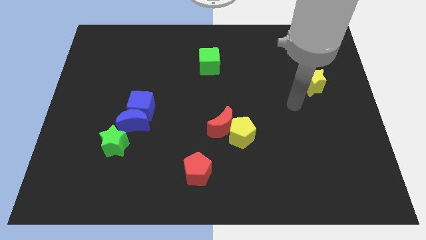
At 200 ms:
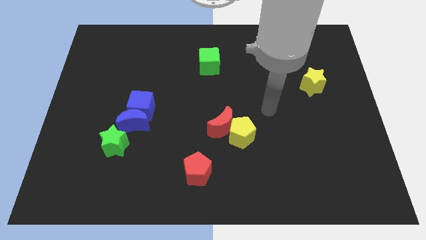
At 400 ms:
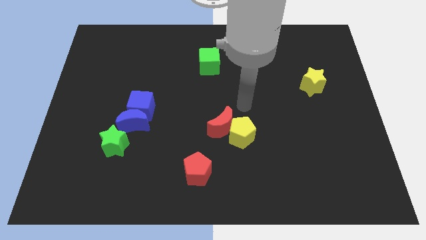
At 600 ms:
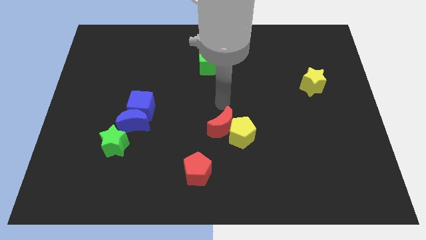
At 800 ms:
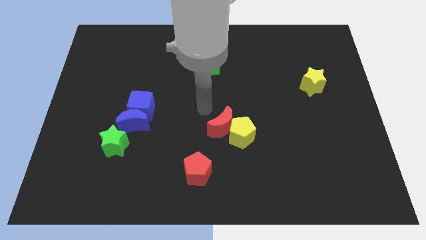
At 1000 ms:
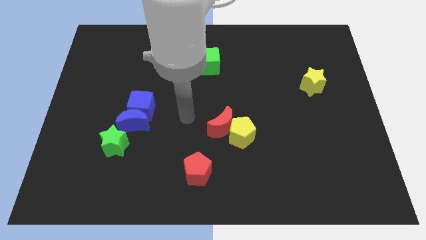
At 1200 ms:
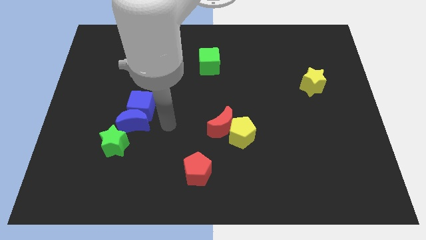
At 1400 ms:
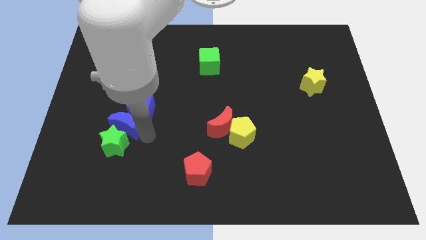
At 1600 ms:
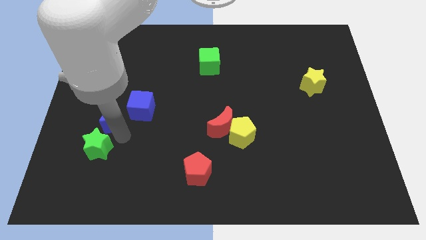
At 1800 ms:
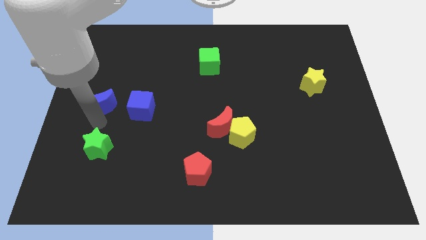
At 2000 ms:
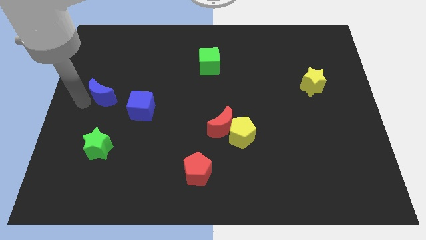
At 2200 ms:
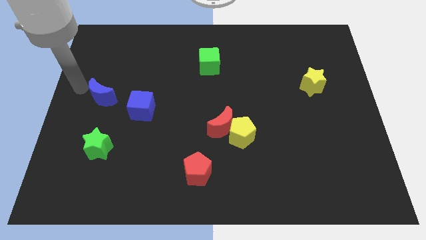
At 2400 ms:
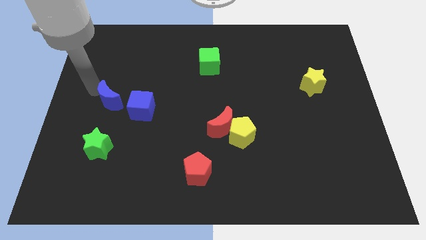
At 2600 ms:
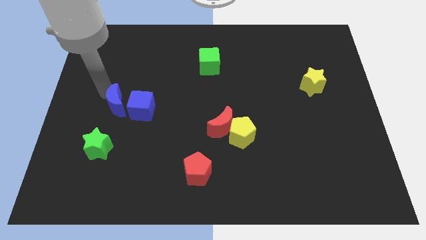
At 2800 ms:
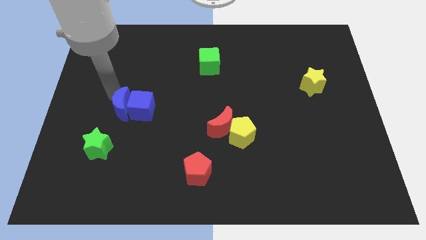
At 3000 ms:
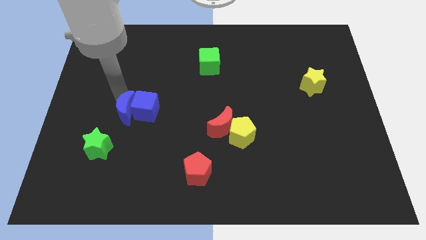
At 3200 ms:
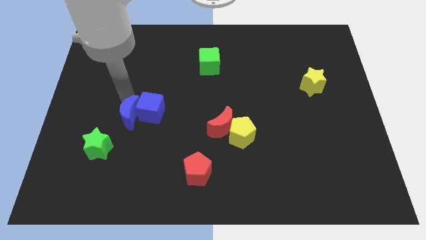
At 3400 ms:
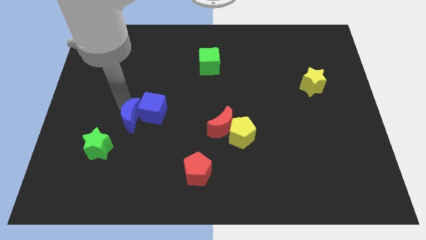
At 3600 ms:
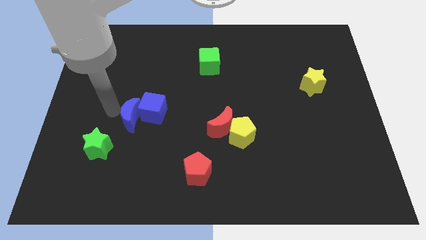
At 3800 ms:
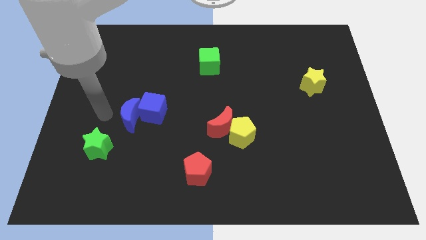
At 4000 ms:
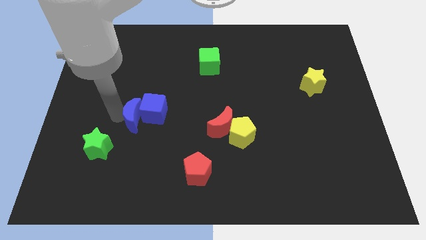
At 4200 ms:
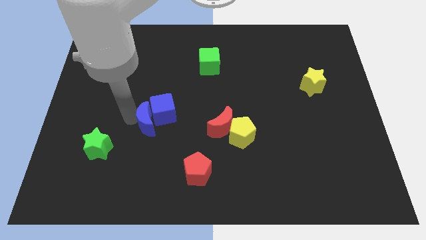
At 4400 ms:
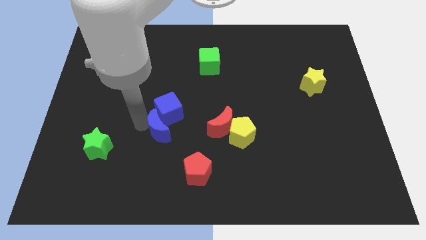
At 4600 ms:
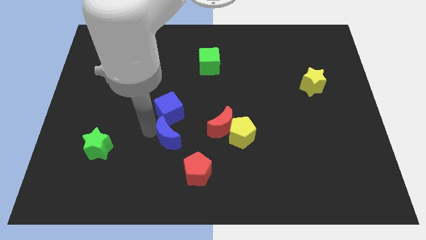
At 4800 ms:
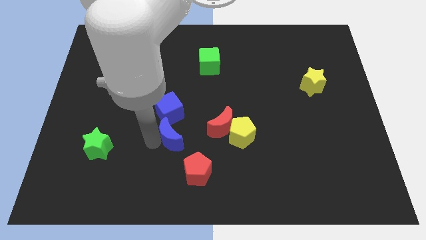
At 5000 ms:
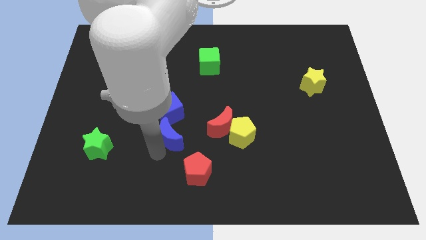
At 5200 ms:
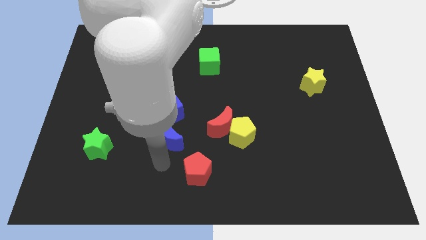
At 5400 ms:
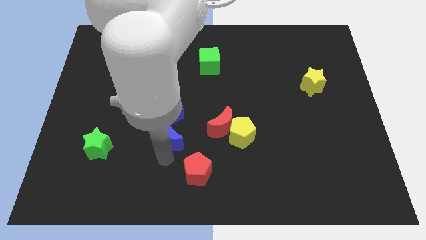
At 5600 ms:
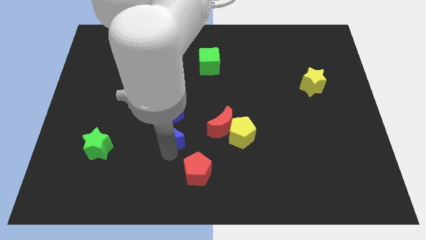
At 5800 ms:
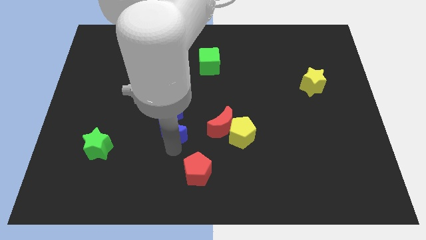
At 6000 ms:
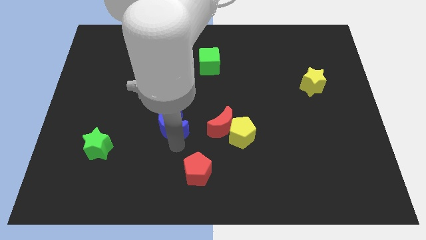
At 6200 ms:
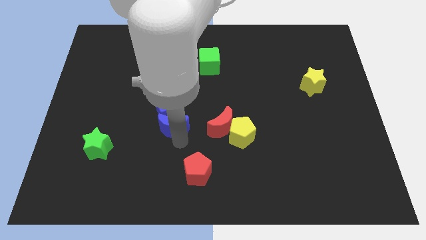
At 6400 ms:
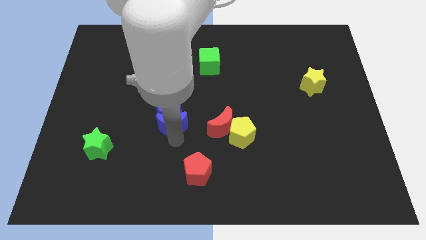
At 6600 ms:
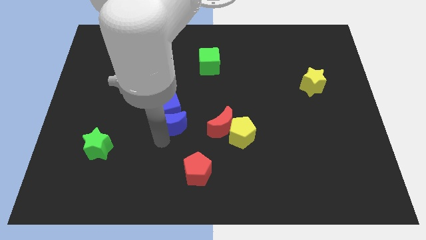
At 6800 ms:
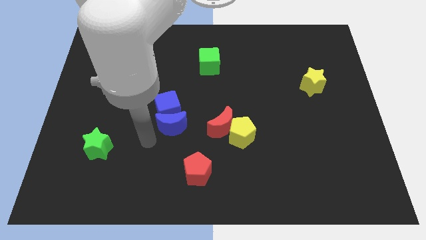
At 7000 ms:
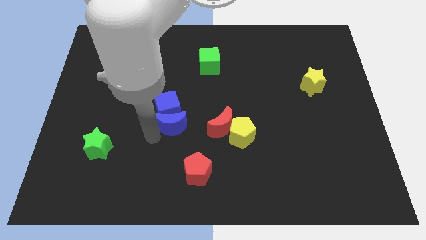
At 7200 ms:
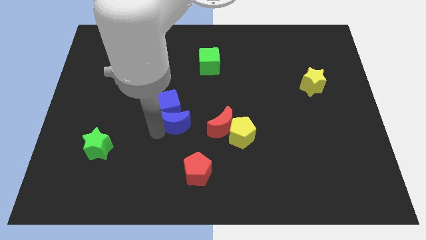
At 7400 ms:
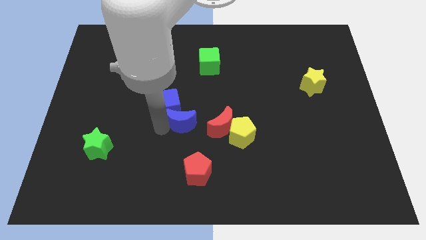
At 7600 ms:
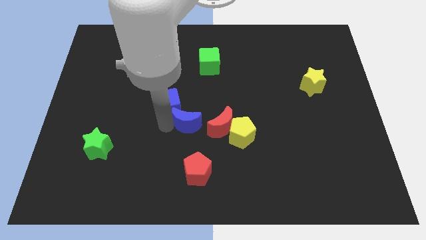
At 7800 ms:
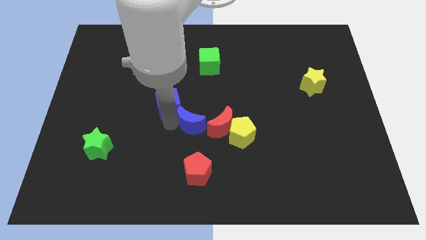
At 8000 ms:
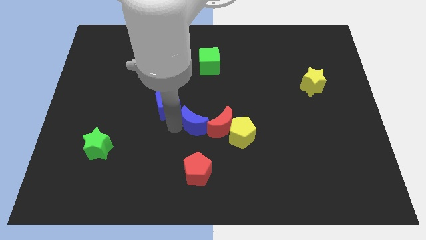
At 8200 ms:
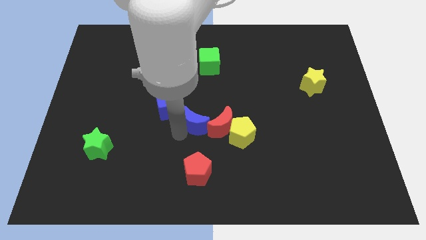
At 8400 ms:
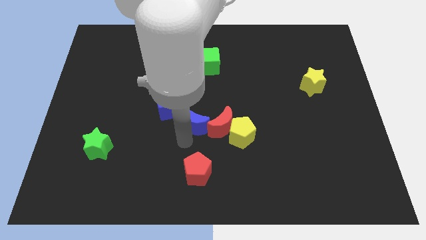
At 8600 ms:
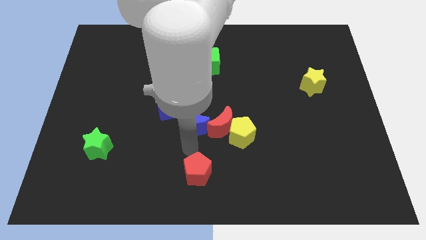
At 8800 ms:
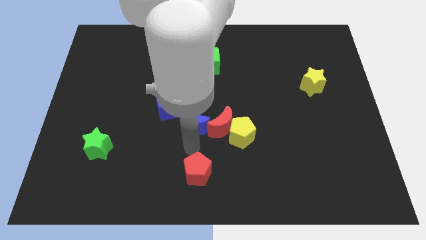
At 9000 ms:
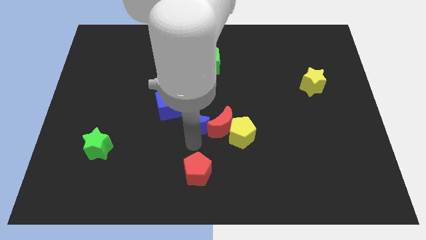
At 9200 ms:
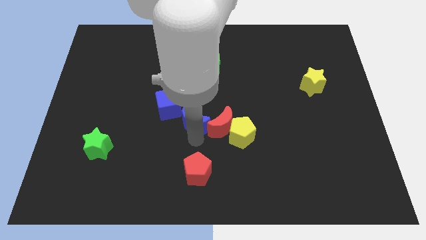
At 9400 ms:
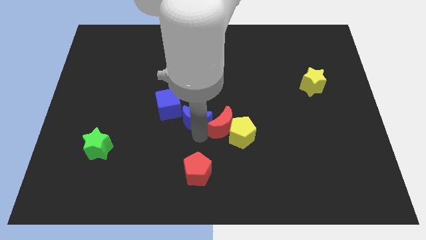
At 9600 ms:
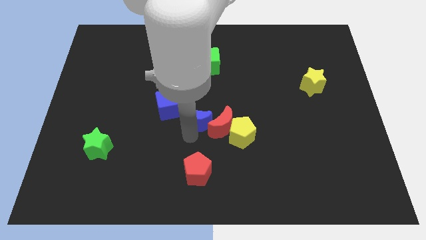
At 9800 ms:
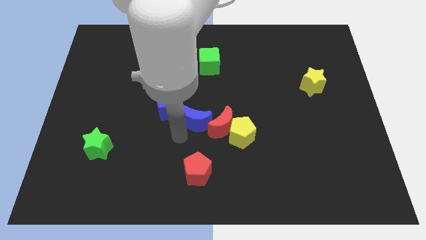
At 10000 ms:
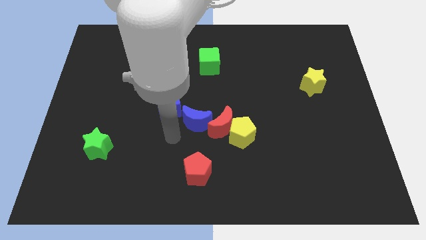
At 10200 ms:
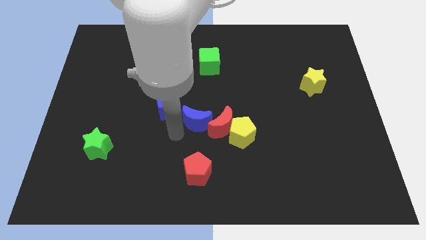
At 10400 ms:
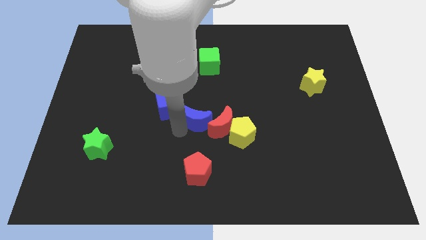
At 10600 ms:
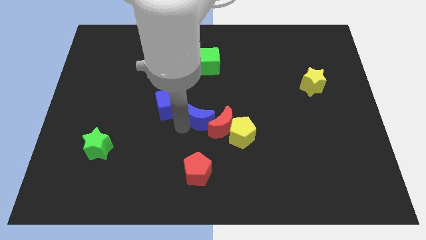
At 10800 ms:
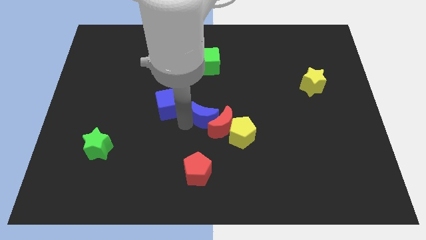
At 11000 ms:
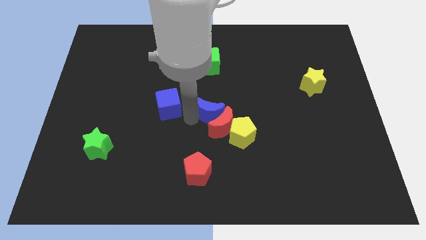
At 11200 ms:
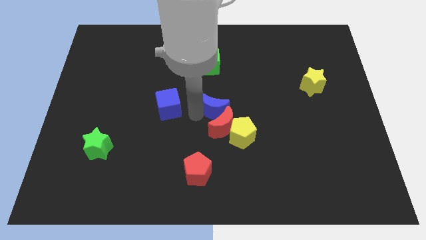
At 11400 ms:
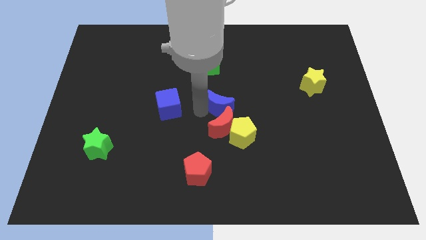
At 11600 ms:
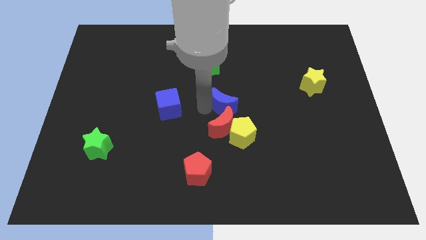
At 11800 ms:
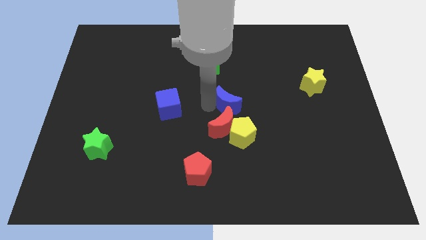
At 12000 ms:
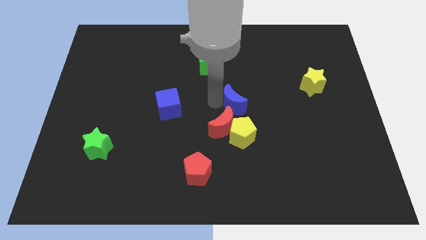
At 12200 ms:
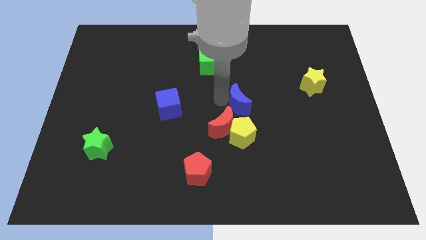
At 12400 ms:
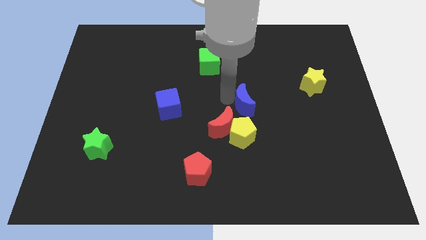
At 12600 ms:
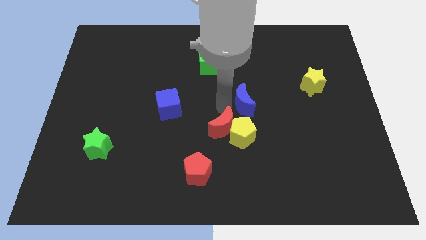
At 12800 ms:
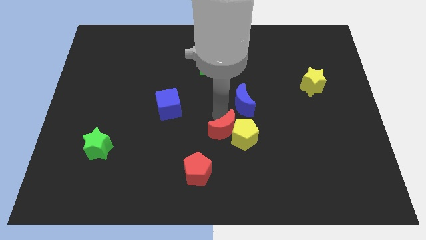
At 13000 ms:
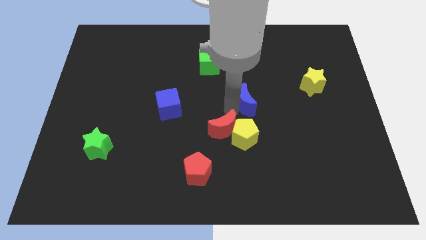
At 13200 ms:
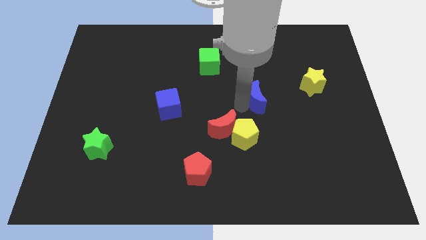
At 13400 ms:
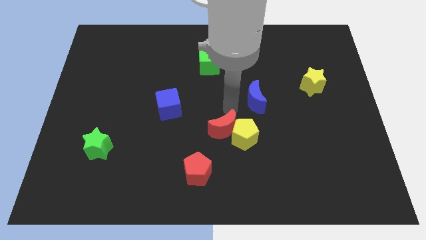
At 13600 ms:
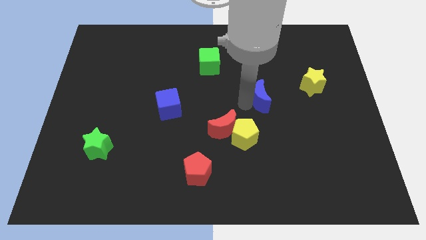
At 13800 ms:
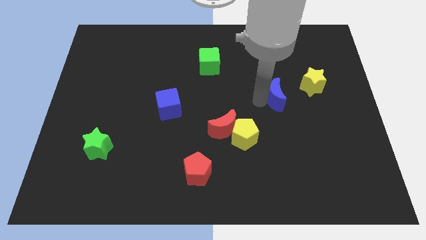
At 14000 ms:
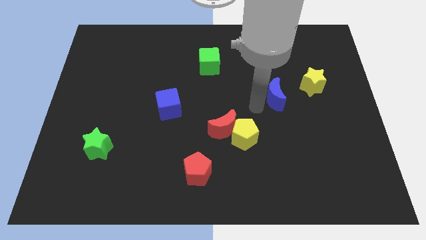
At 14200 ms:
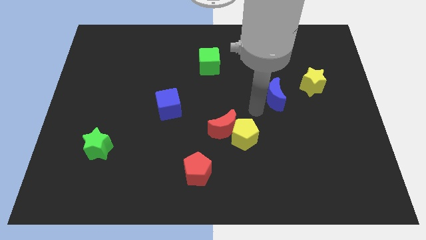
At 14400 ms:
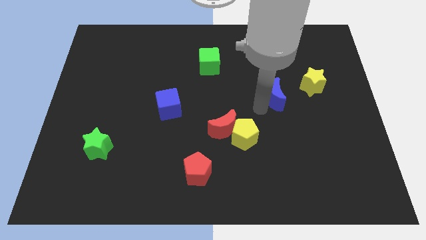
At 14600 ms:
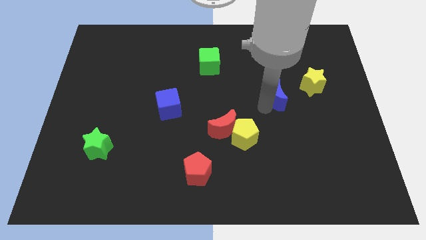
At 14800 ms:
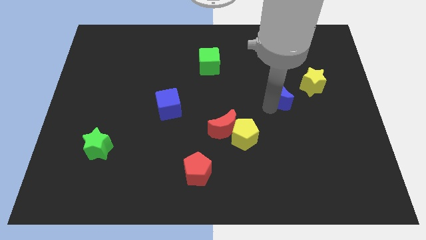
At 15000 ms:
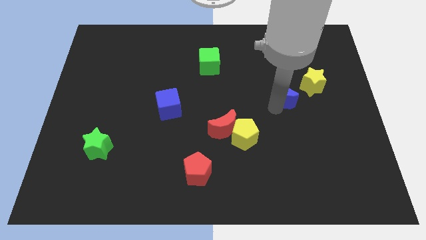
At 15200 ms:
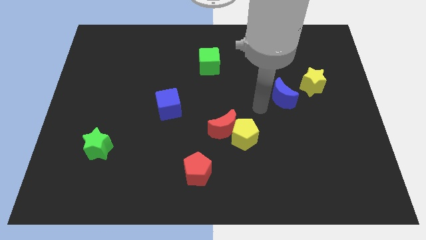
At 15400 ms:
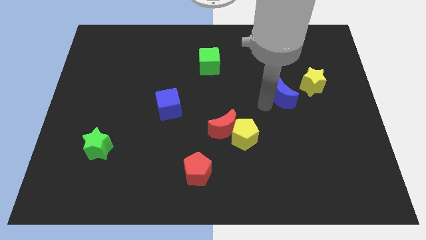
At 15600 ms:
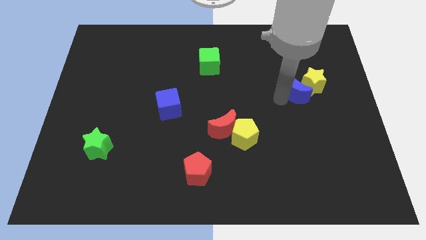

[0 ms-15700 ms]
push the blue moon close to the yellow star

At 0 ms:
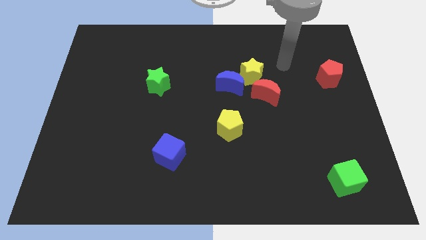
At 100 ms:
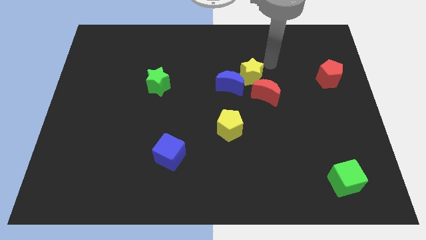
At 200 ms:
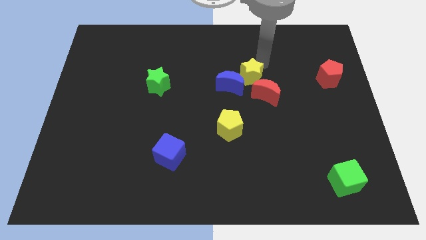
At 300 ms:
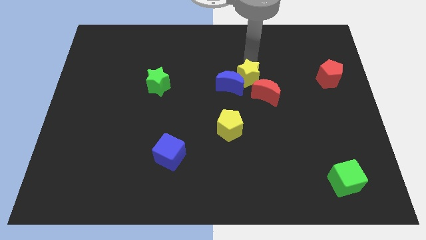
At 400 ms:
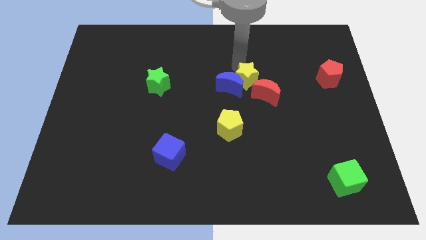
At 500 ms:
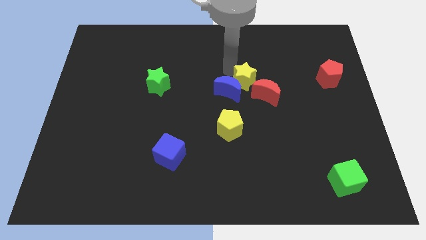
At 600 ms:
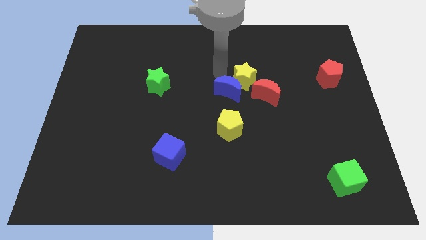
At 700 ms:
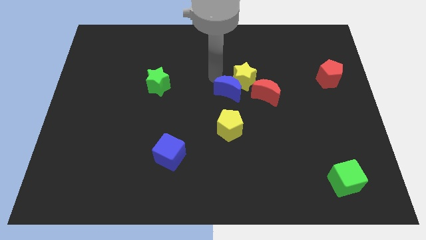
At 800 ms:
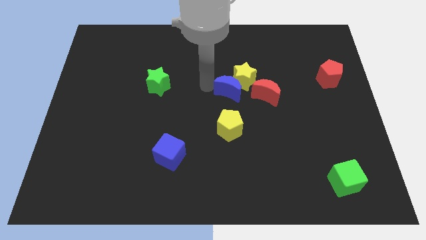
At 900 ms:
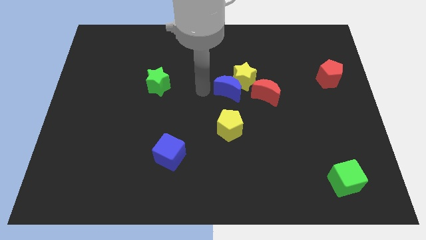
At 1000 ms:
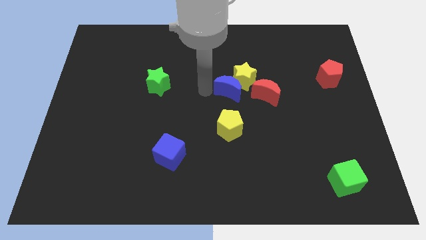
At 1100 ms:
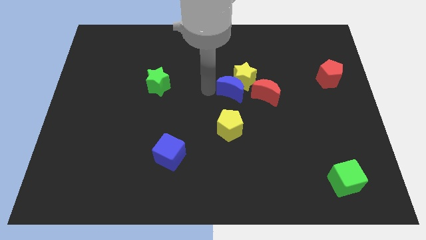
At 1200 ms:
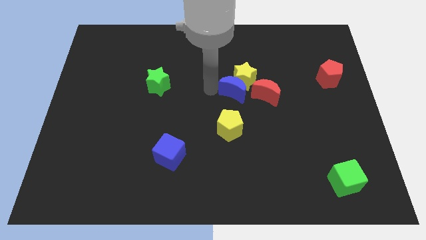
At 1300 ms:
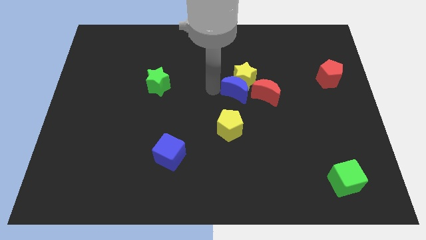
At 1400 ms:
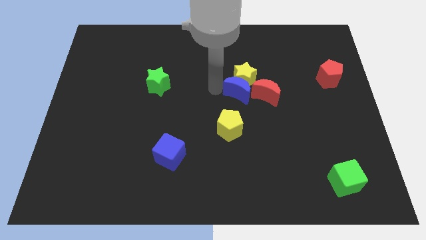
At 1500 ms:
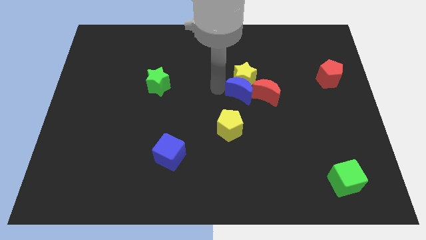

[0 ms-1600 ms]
put the blue moon next to the red moon
